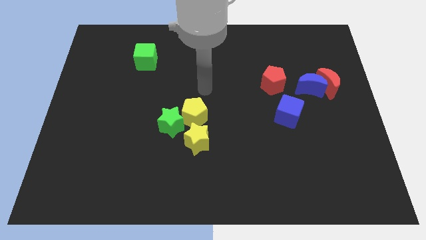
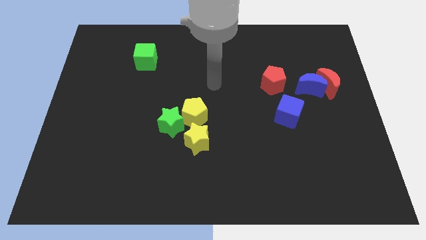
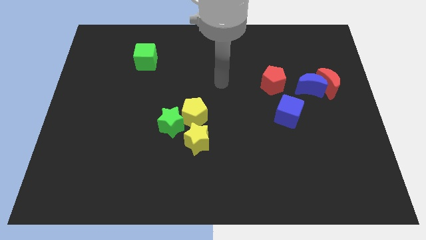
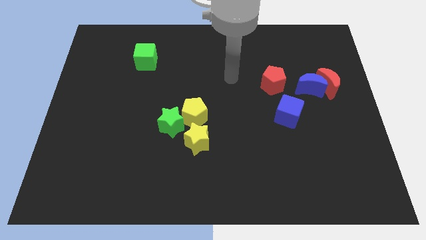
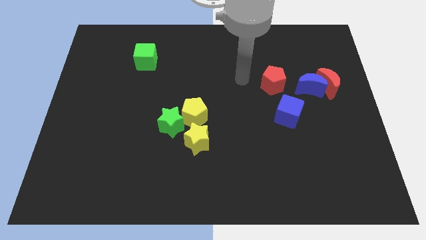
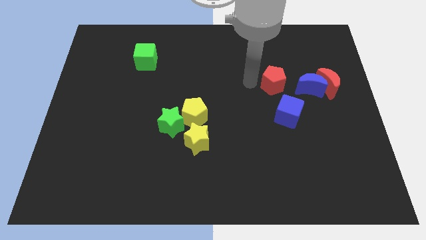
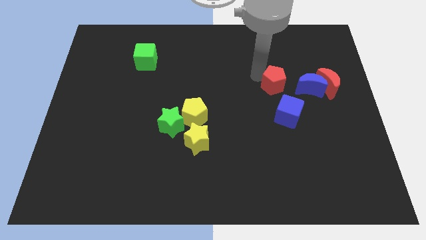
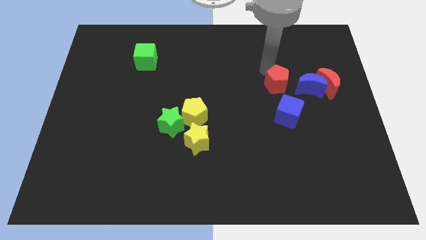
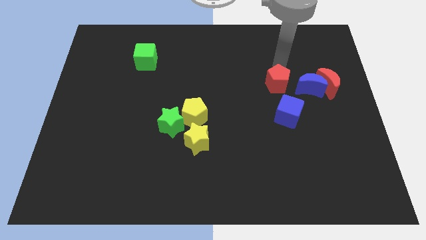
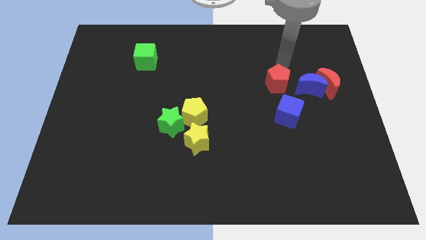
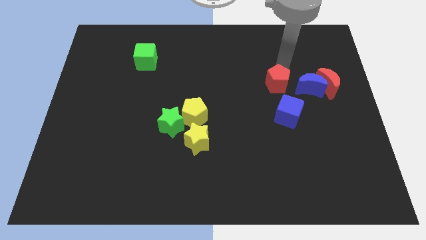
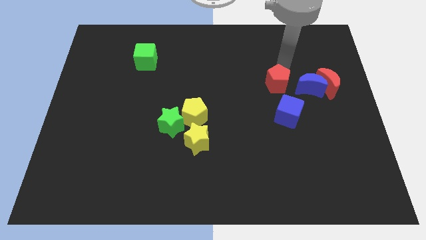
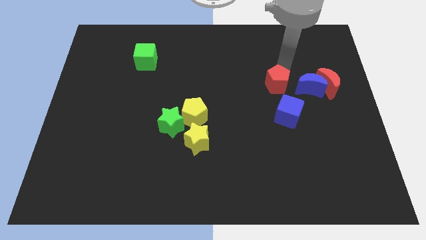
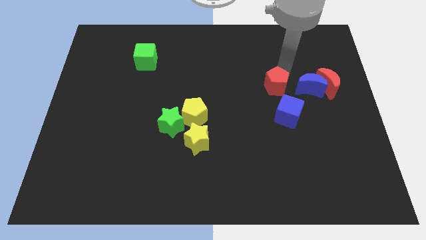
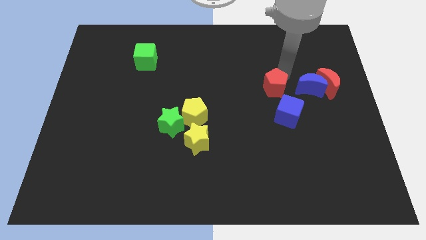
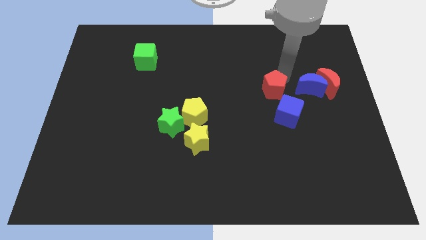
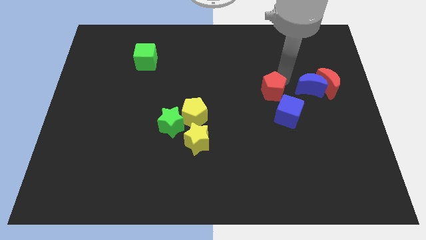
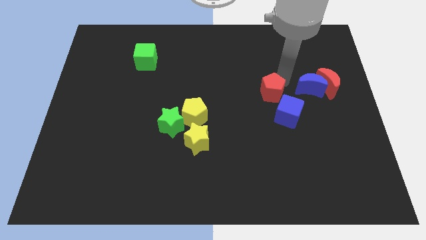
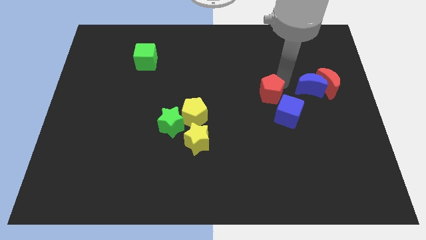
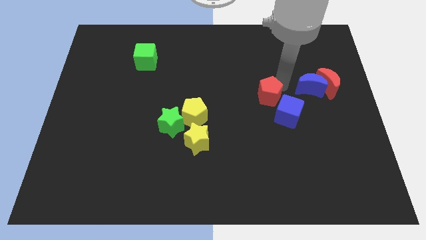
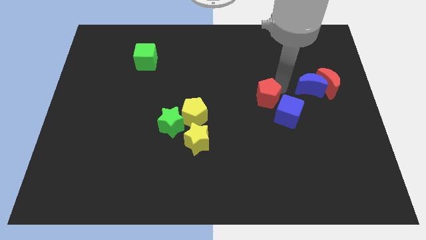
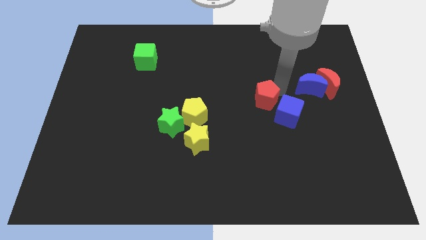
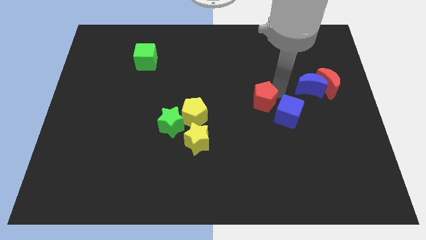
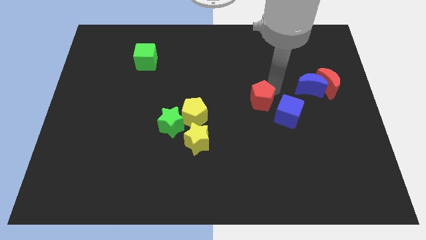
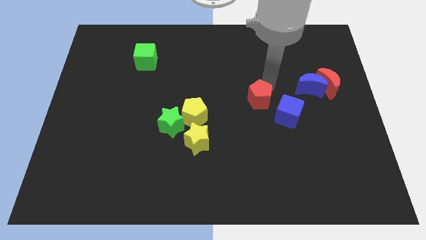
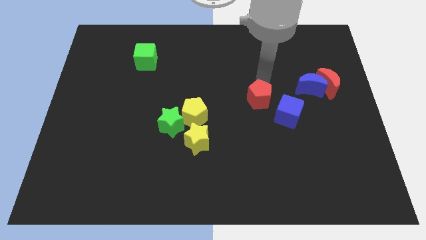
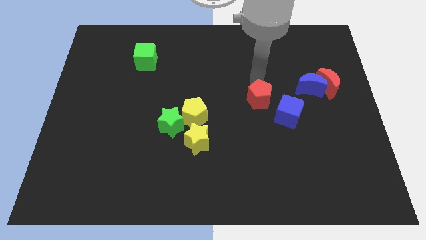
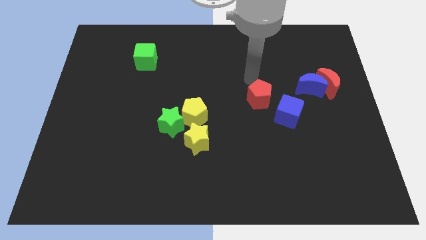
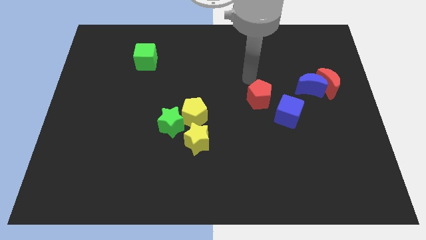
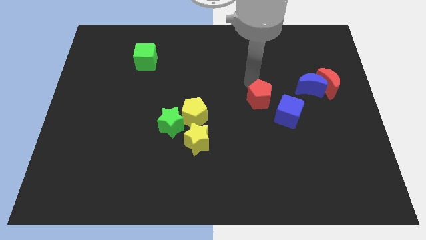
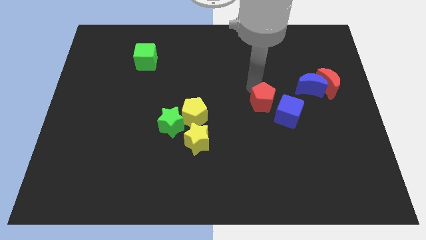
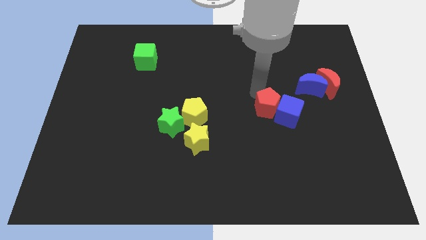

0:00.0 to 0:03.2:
push the red pentagon slightly downwards

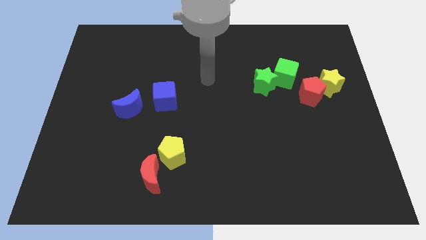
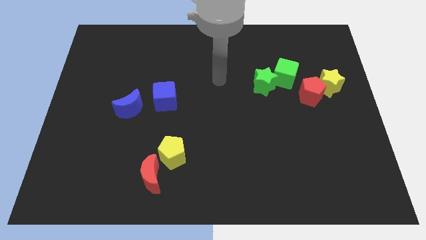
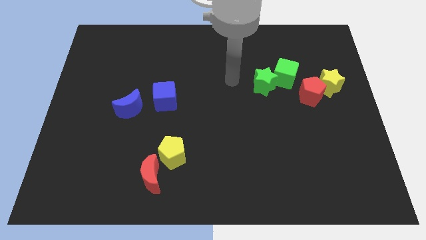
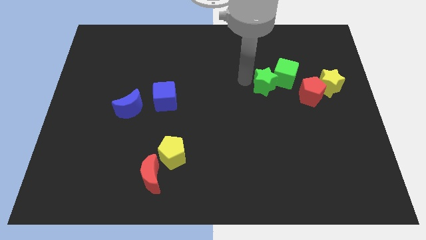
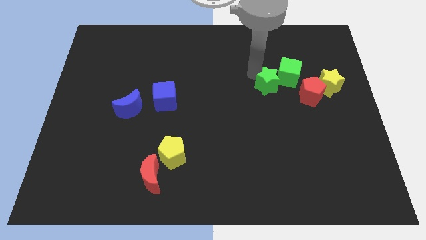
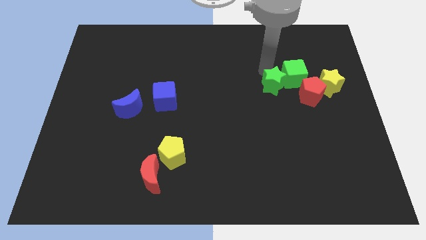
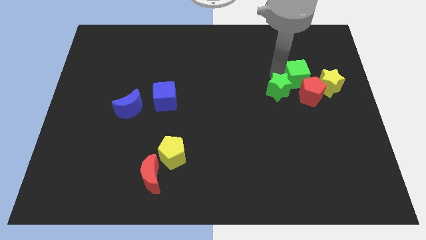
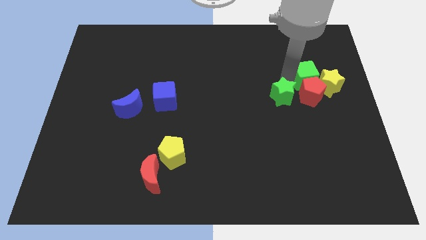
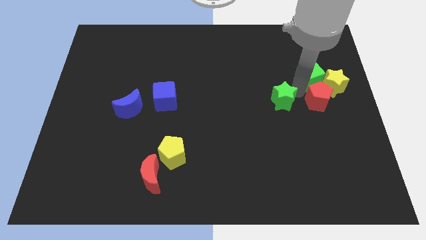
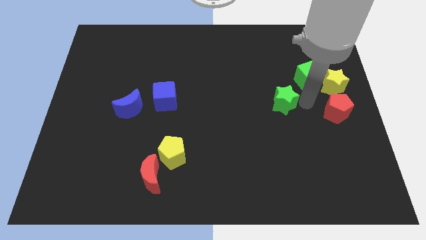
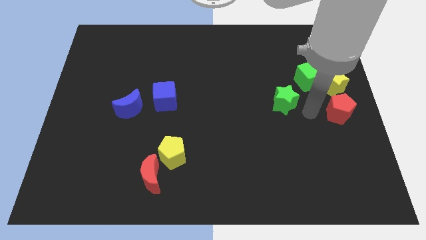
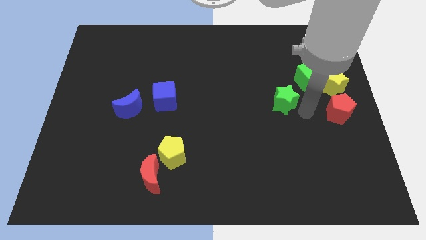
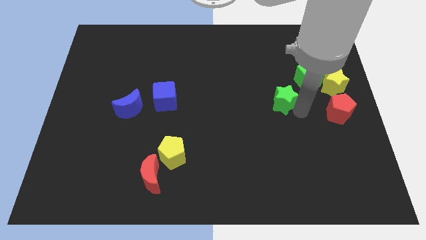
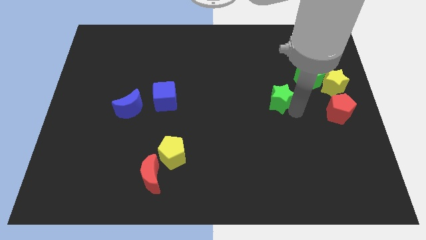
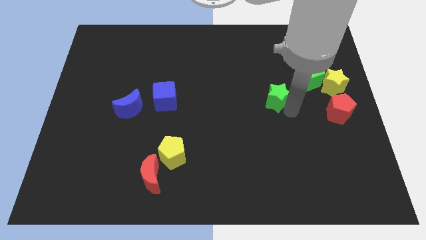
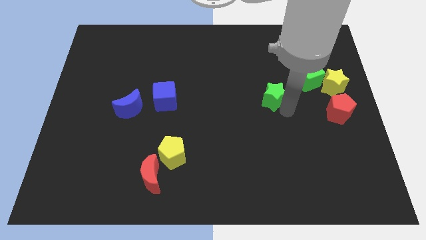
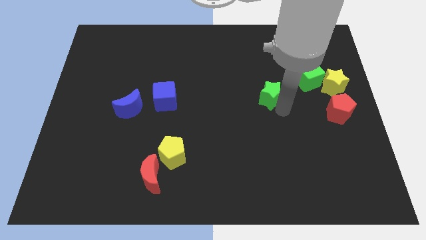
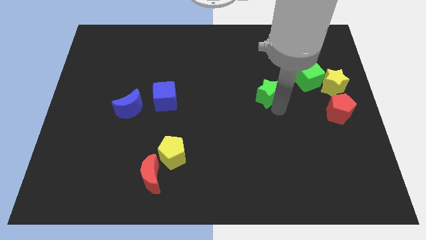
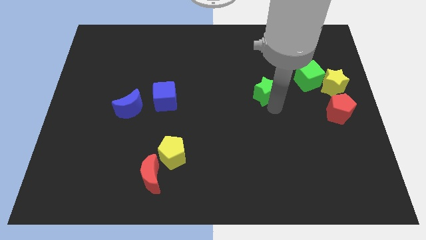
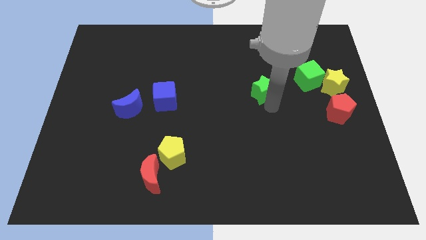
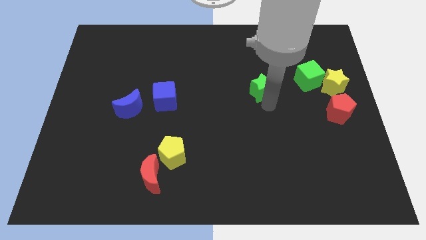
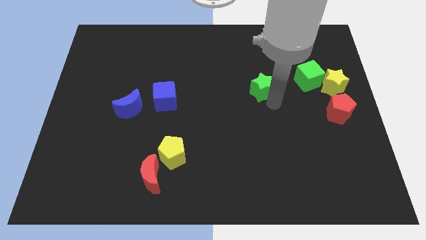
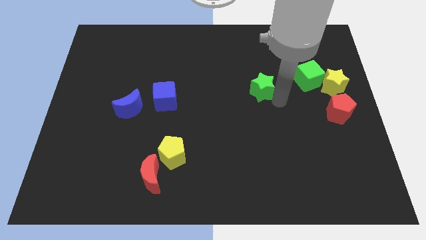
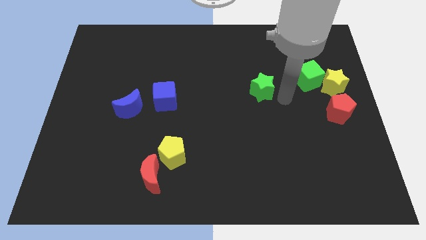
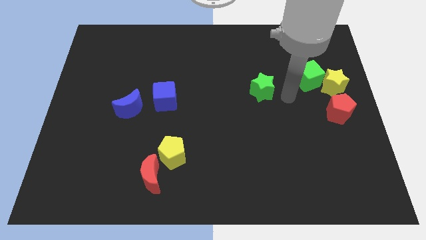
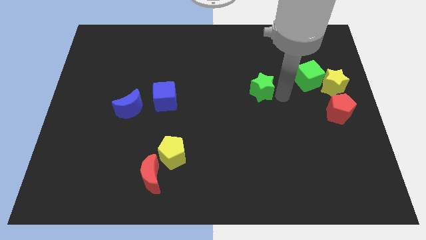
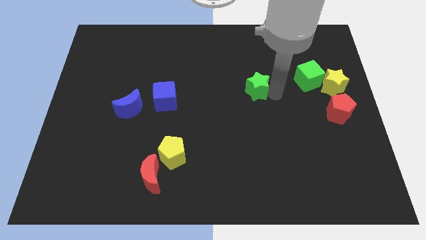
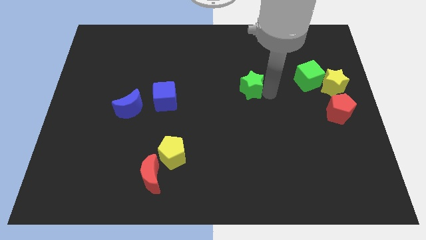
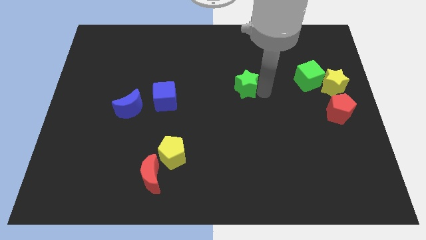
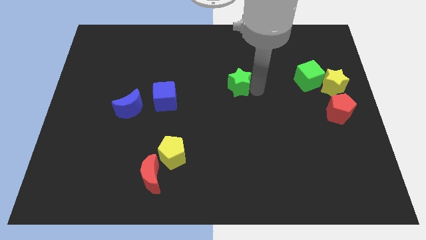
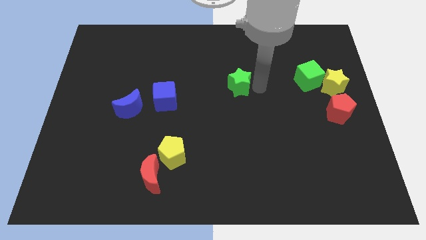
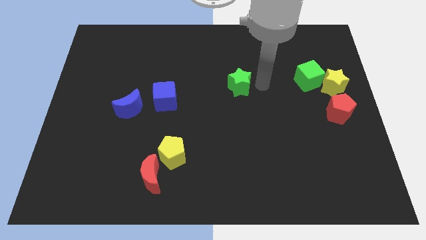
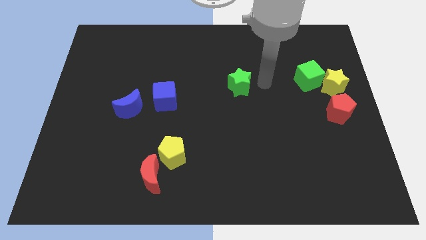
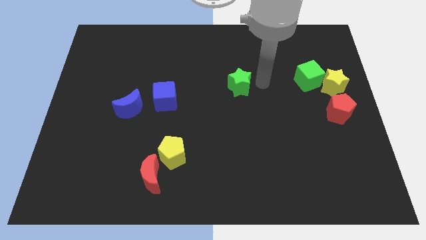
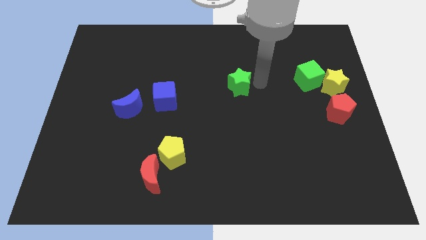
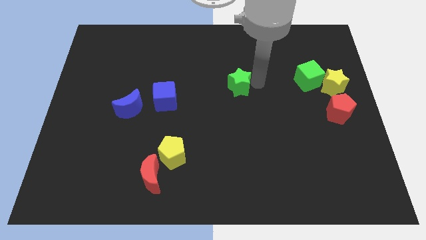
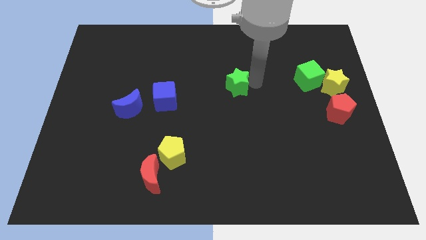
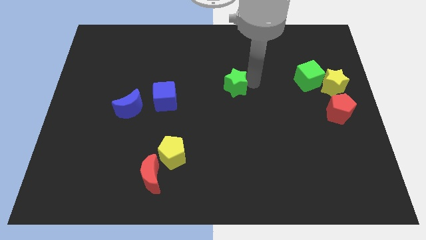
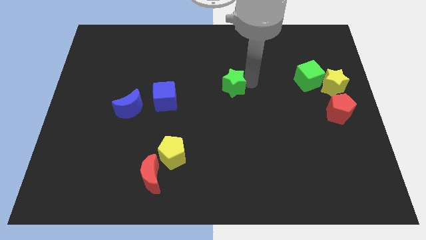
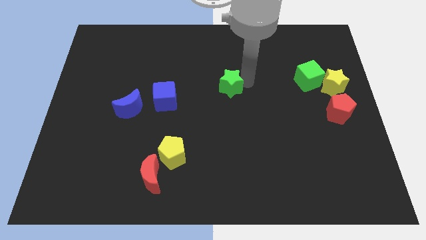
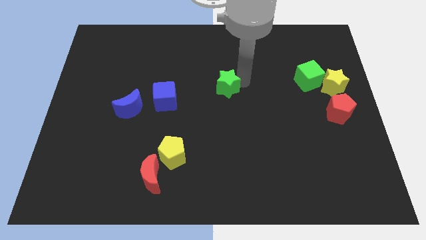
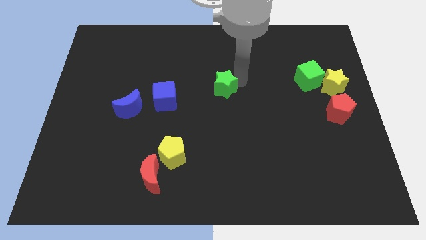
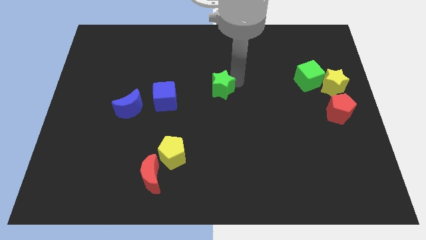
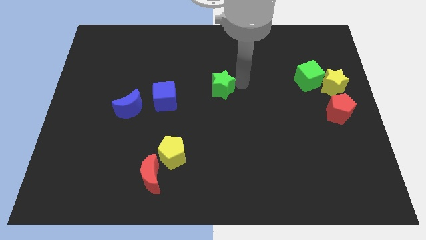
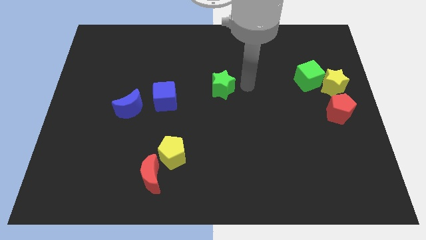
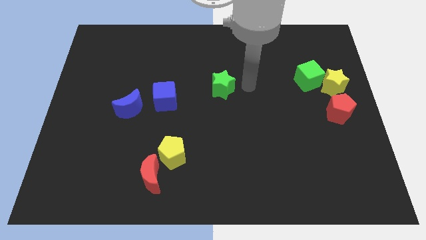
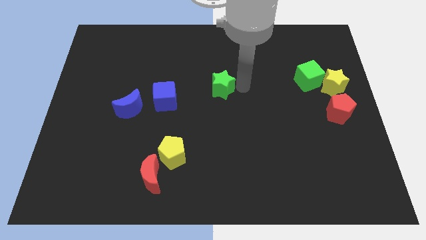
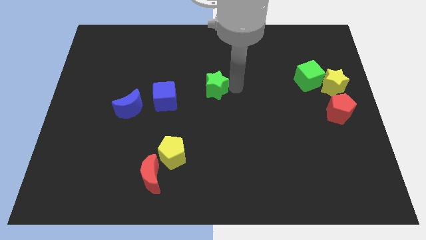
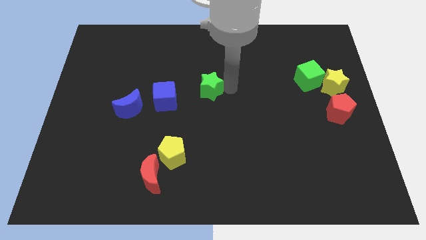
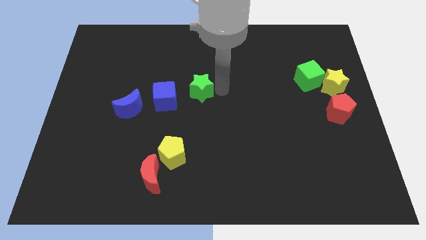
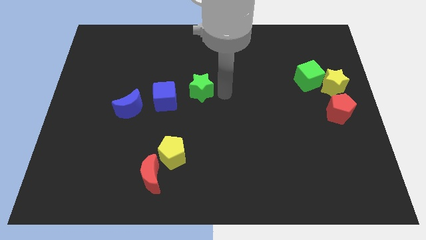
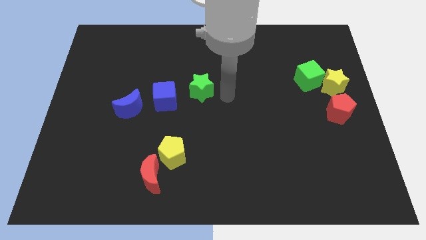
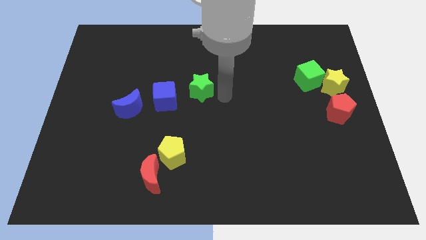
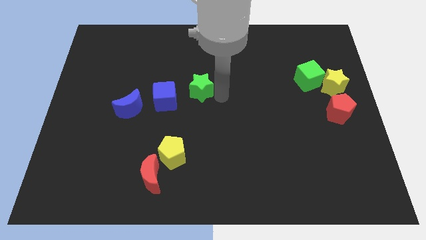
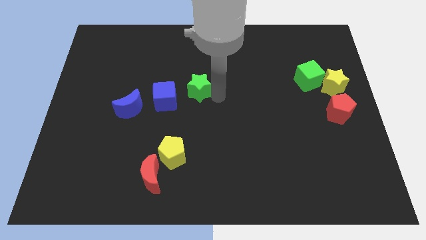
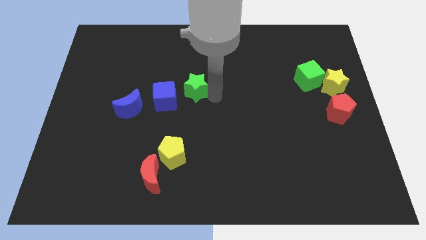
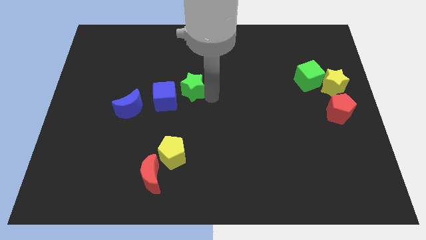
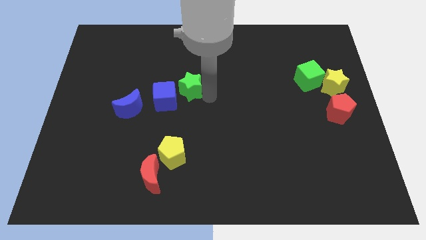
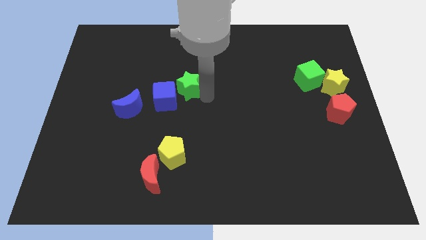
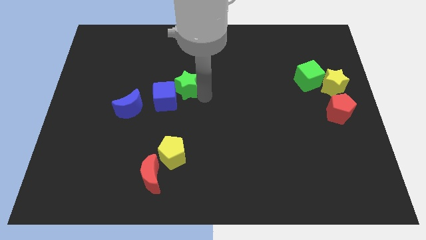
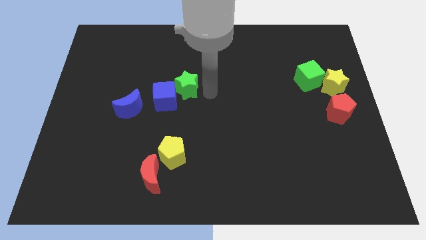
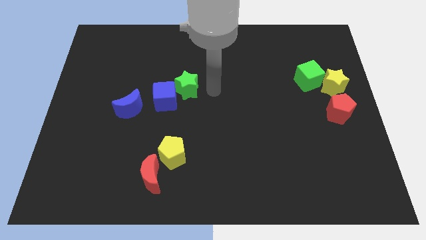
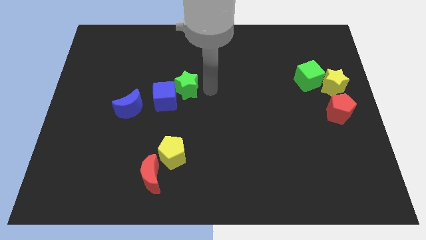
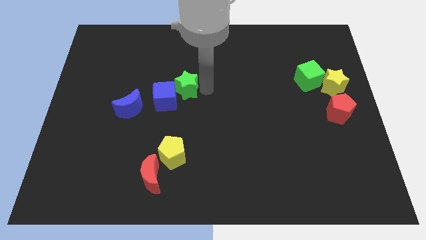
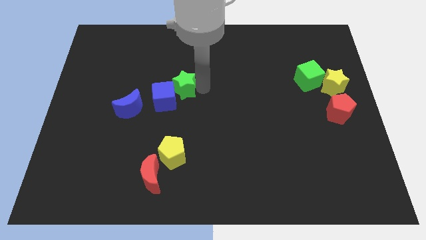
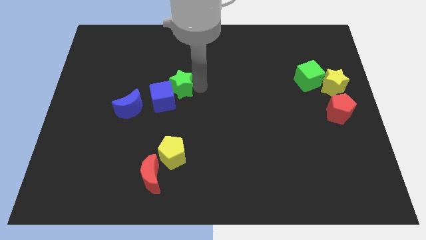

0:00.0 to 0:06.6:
move the green star to the left
